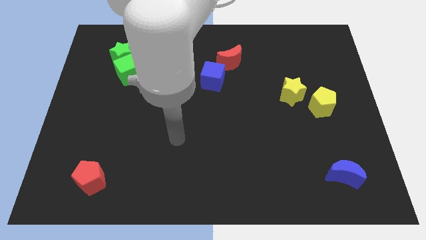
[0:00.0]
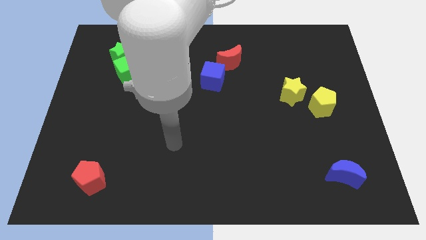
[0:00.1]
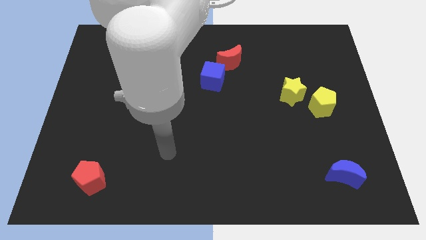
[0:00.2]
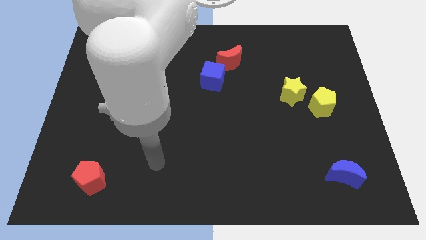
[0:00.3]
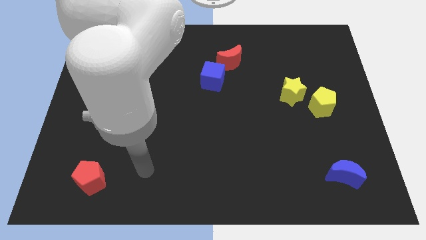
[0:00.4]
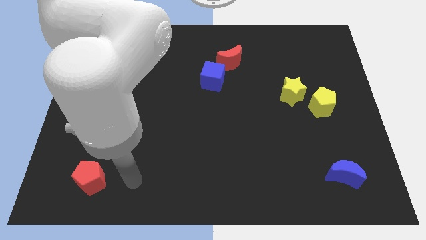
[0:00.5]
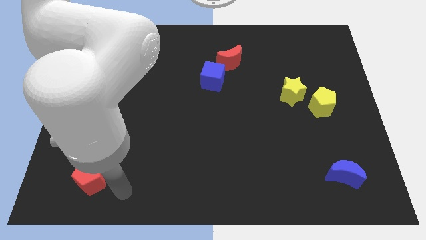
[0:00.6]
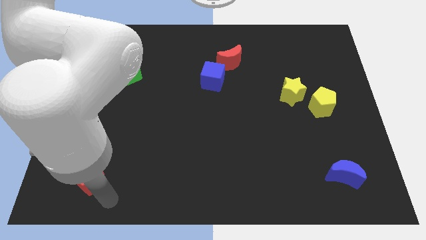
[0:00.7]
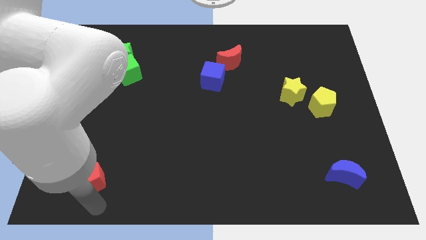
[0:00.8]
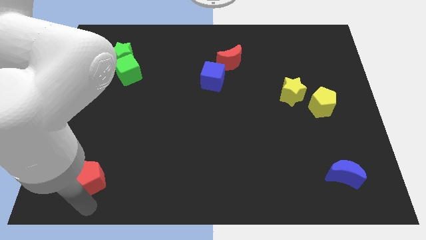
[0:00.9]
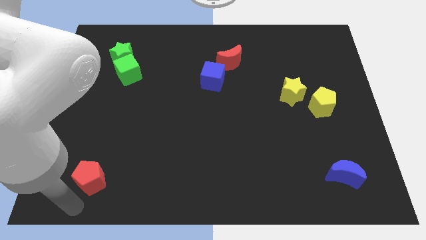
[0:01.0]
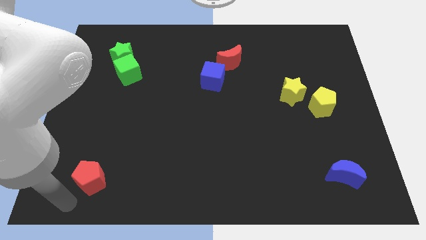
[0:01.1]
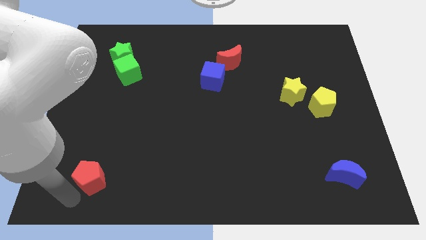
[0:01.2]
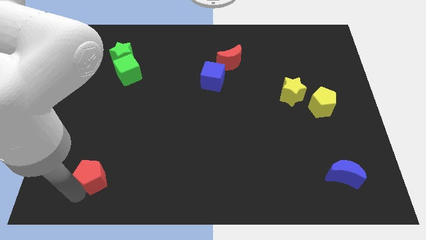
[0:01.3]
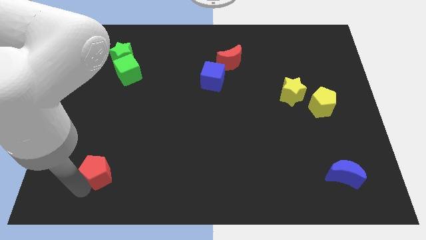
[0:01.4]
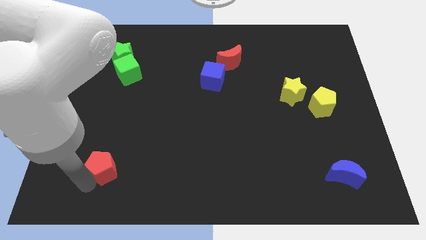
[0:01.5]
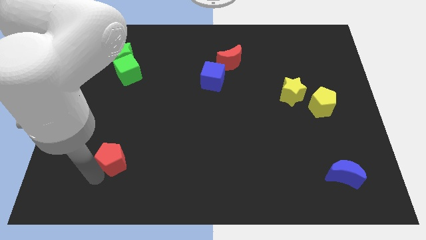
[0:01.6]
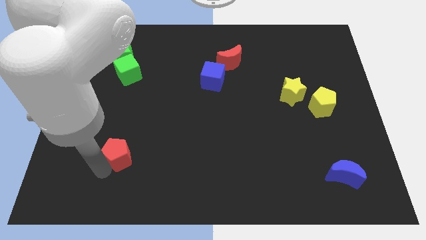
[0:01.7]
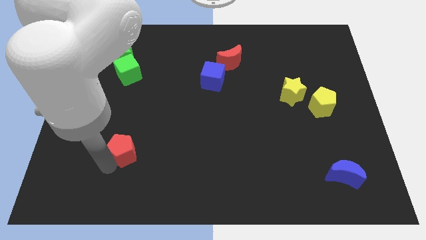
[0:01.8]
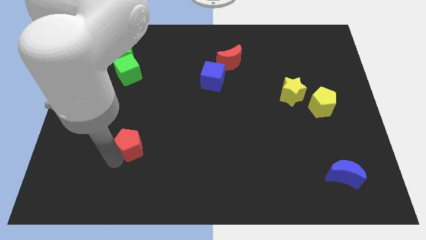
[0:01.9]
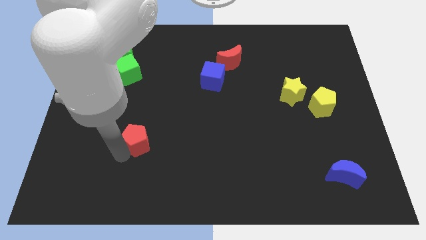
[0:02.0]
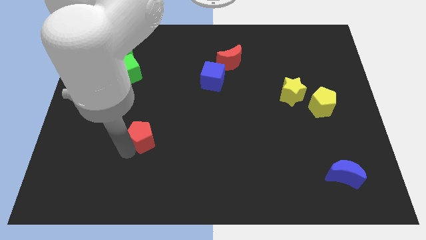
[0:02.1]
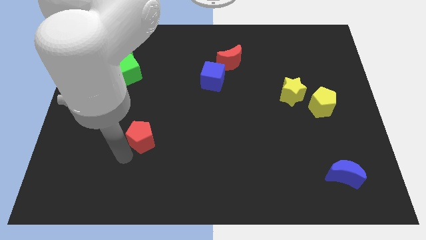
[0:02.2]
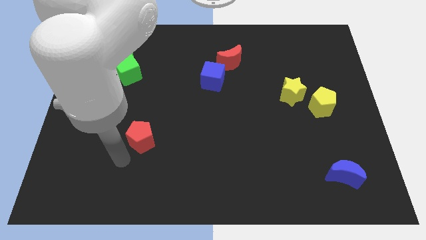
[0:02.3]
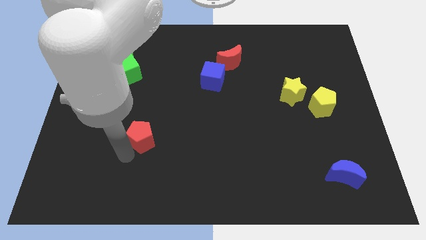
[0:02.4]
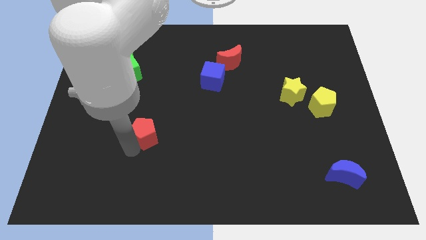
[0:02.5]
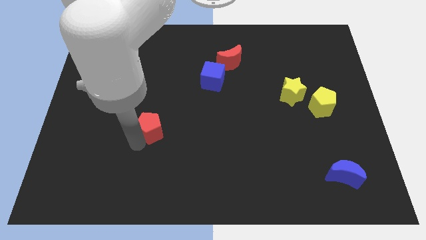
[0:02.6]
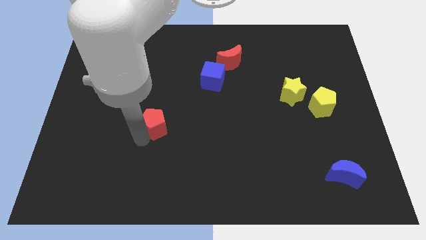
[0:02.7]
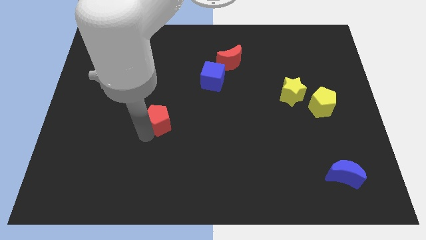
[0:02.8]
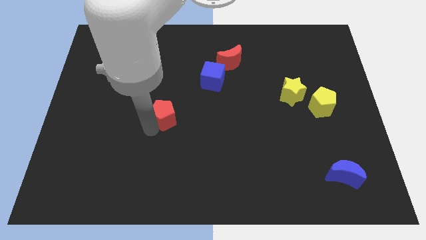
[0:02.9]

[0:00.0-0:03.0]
slide the red pentagon diagonally upwards and to the right

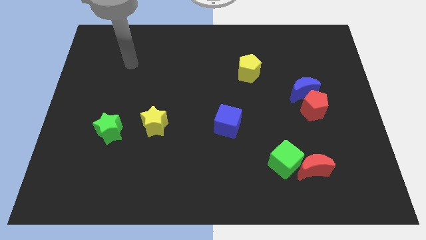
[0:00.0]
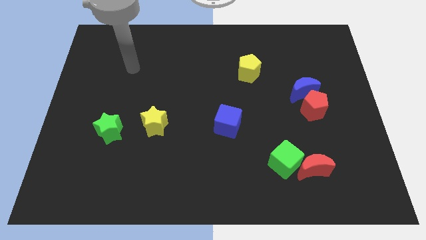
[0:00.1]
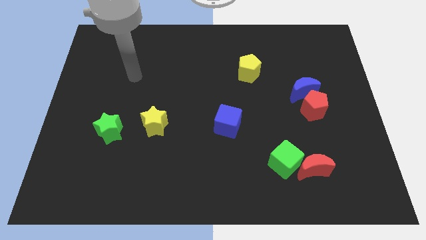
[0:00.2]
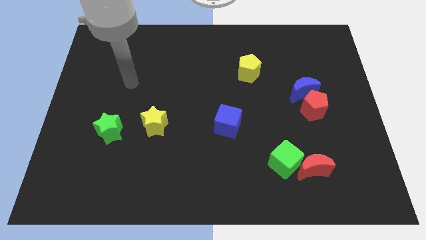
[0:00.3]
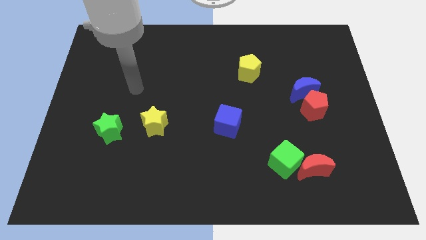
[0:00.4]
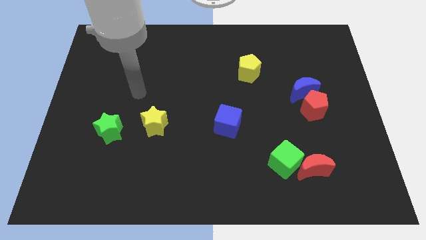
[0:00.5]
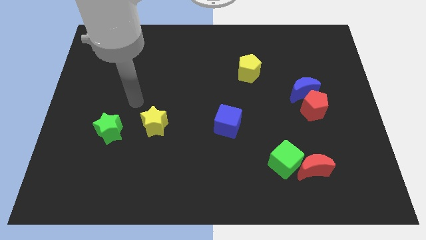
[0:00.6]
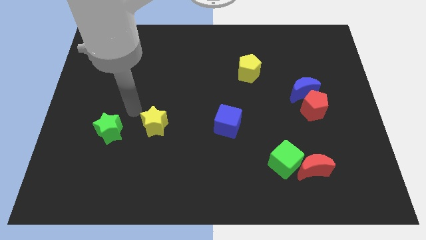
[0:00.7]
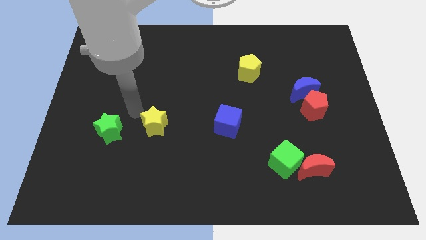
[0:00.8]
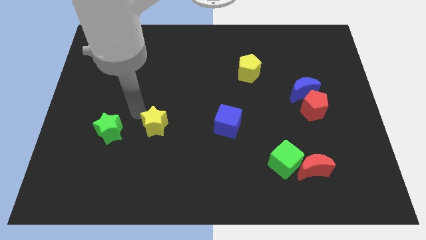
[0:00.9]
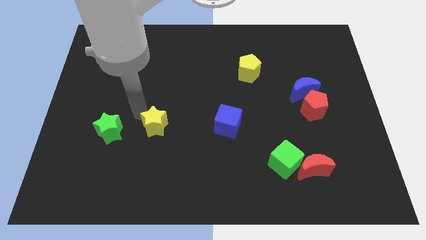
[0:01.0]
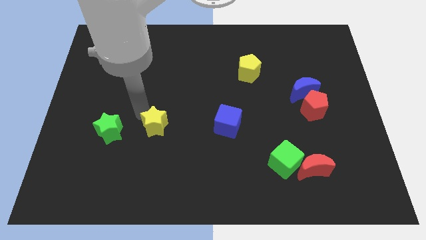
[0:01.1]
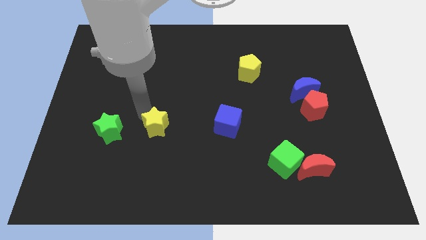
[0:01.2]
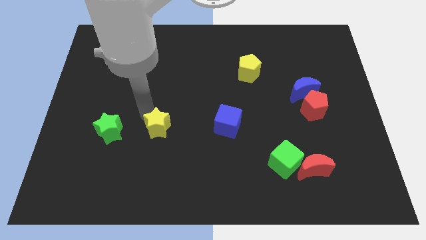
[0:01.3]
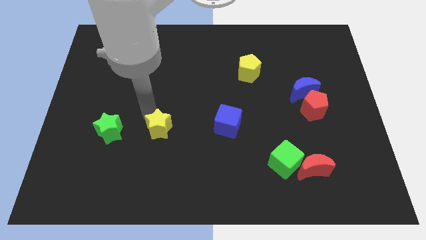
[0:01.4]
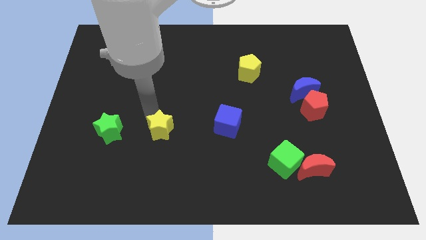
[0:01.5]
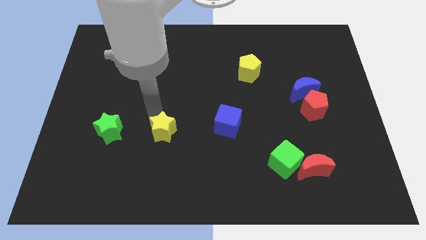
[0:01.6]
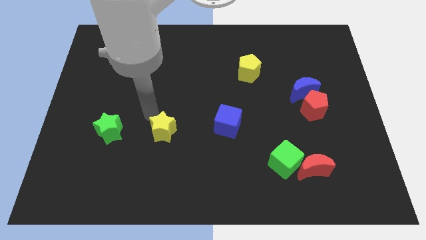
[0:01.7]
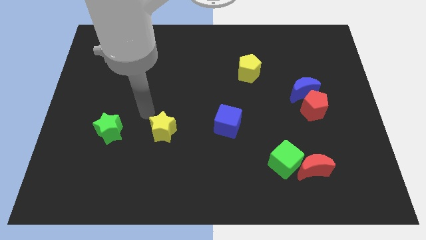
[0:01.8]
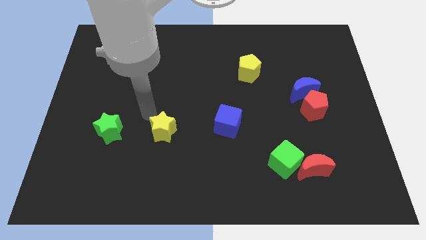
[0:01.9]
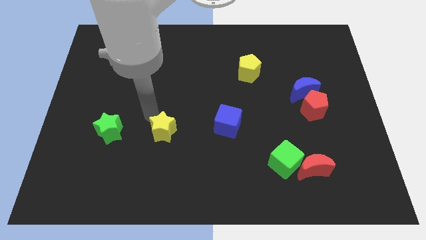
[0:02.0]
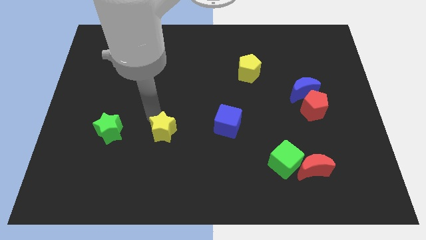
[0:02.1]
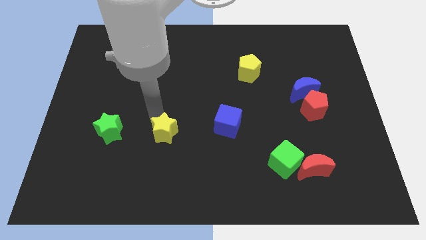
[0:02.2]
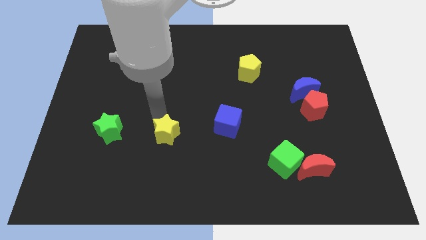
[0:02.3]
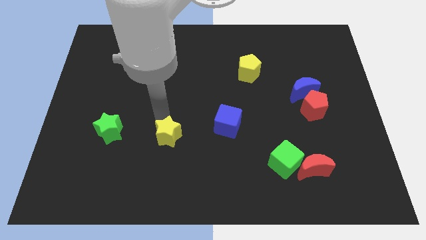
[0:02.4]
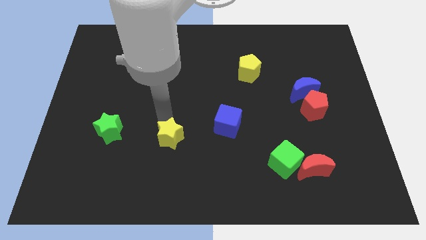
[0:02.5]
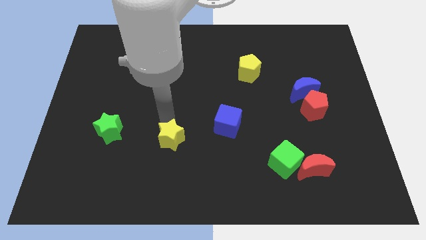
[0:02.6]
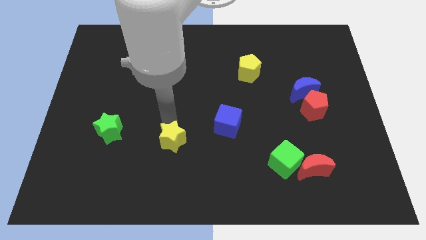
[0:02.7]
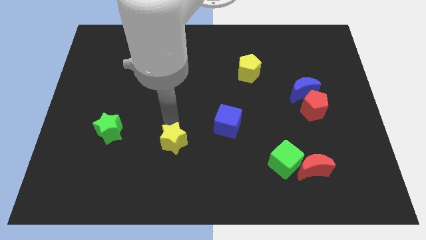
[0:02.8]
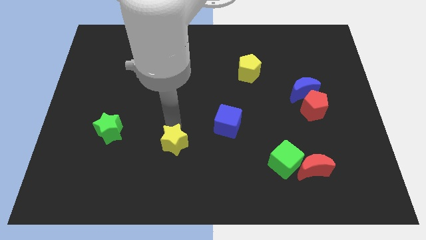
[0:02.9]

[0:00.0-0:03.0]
move the yellow star a bit diagonally down and right

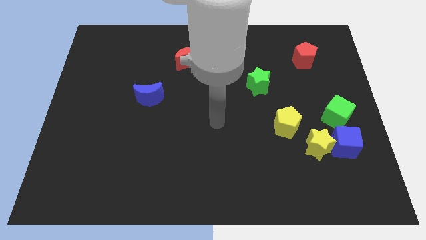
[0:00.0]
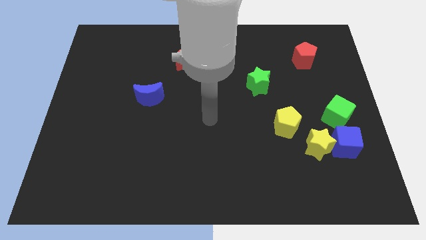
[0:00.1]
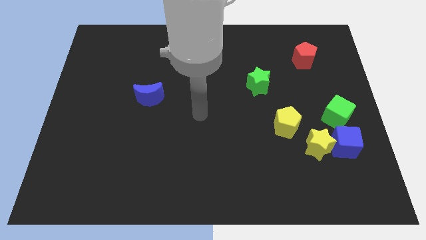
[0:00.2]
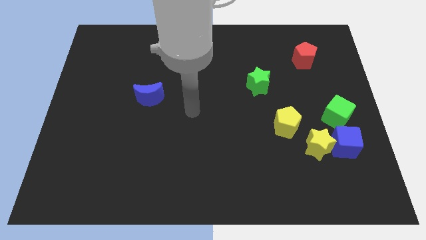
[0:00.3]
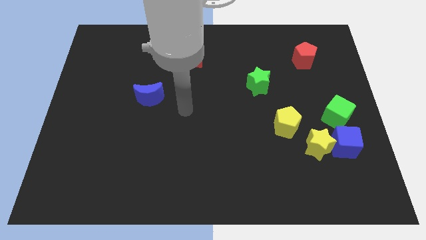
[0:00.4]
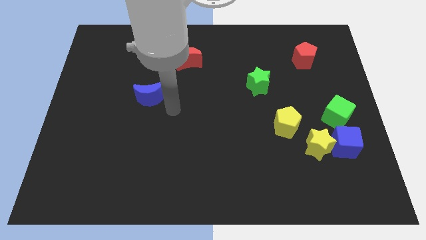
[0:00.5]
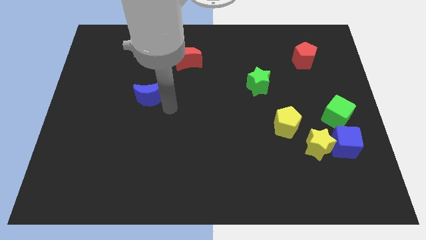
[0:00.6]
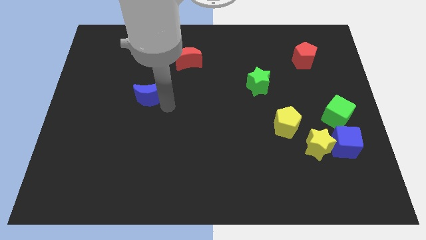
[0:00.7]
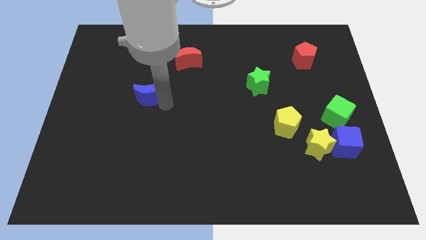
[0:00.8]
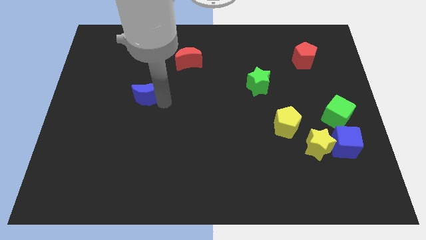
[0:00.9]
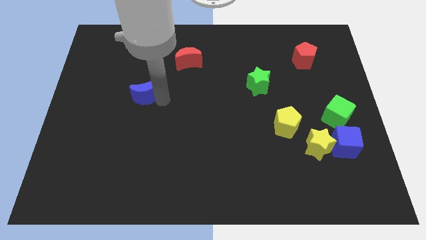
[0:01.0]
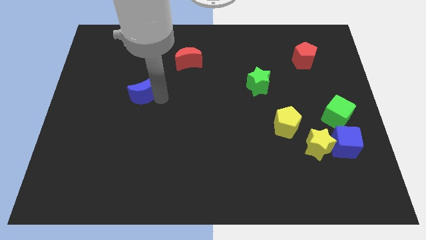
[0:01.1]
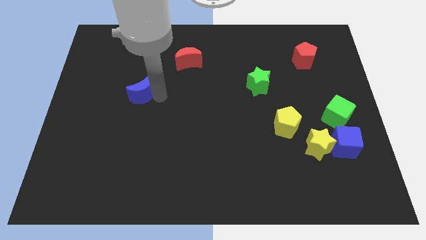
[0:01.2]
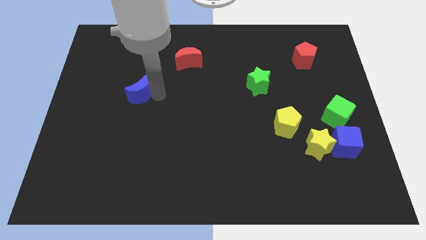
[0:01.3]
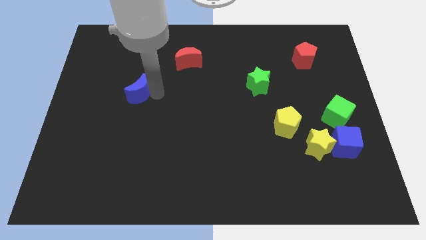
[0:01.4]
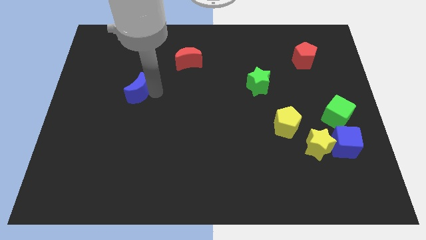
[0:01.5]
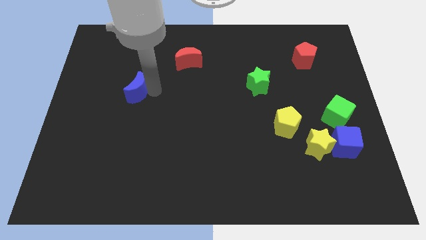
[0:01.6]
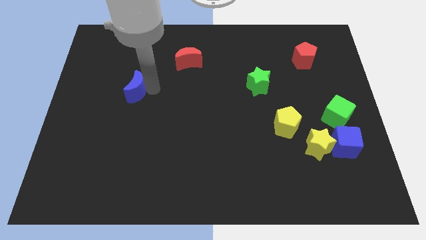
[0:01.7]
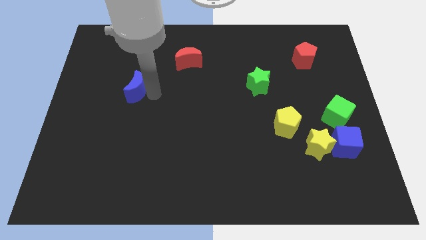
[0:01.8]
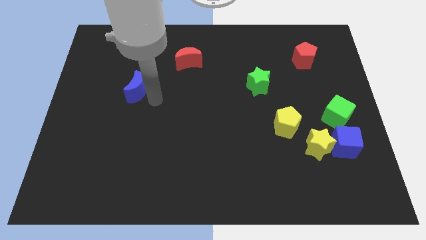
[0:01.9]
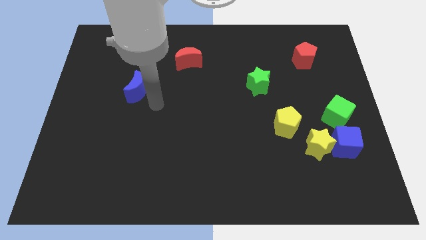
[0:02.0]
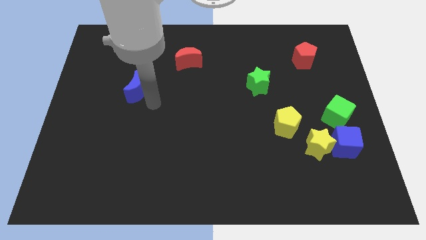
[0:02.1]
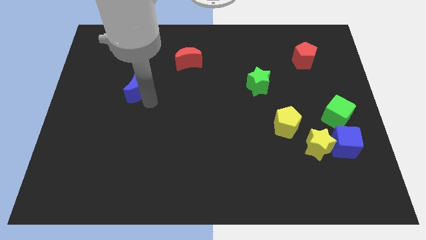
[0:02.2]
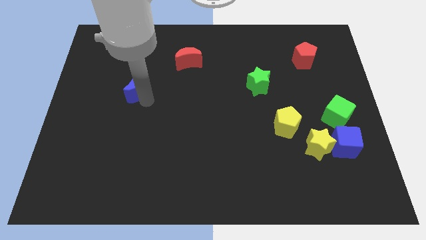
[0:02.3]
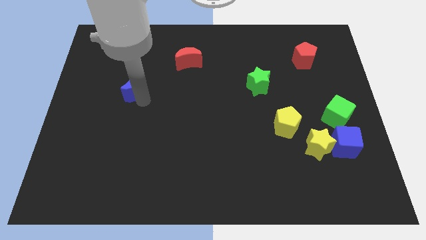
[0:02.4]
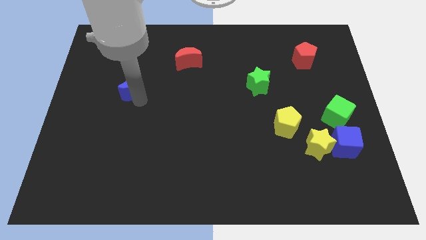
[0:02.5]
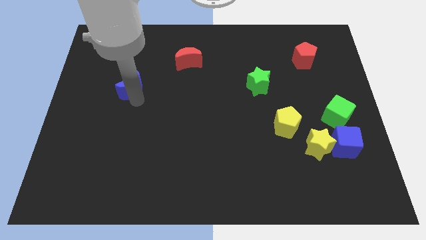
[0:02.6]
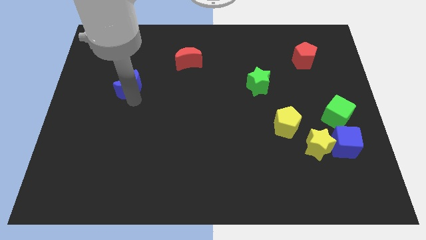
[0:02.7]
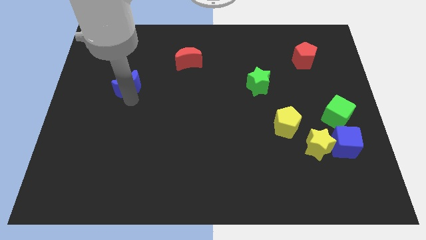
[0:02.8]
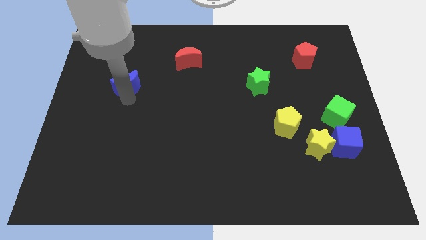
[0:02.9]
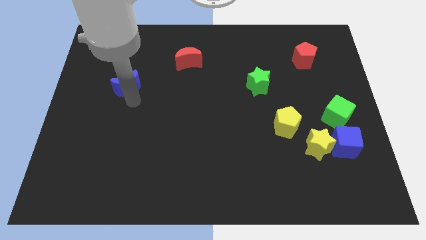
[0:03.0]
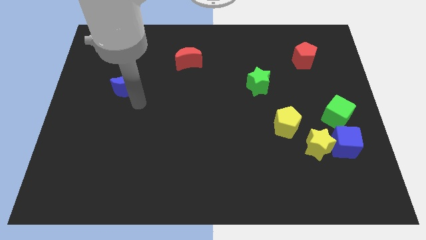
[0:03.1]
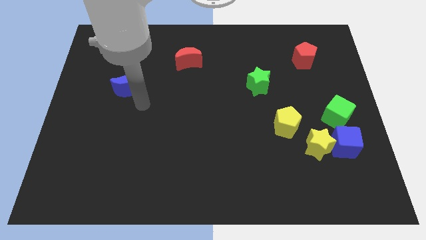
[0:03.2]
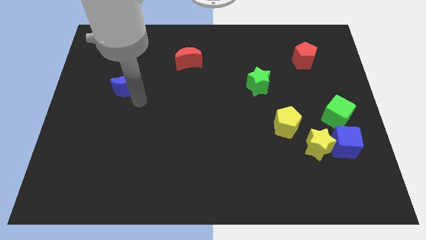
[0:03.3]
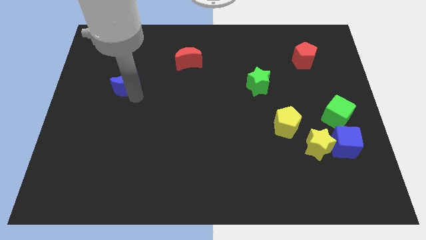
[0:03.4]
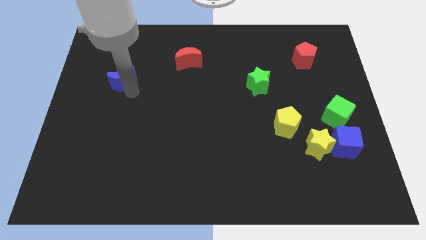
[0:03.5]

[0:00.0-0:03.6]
move the blue moon upwards and to the left diagonally slightly
